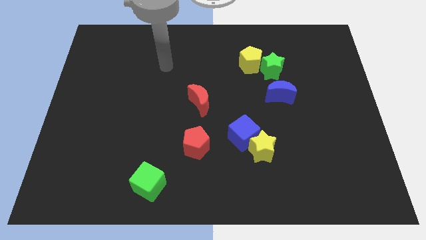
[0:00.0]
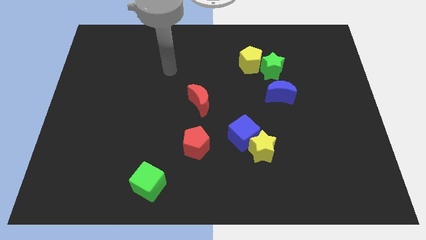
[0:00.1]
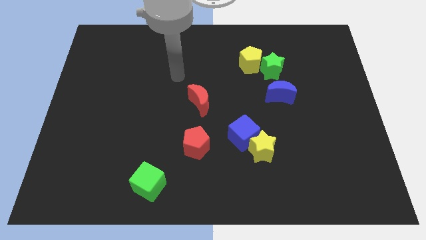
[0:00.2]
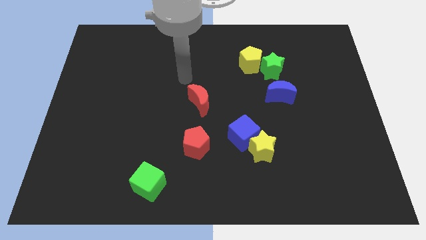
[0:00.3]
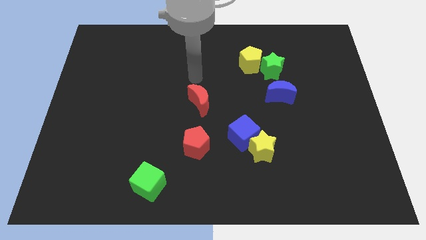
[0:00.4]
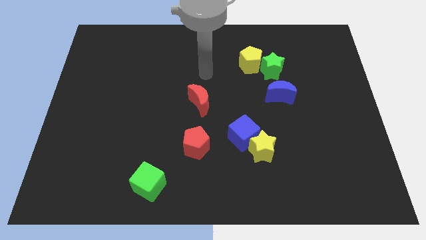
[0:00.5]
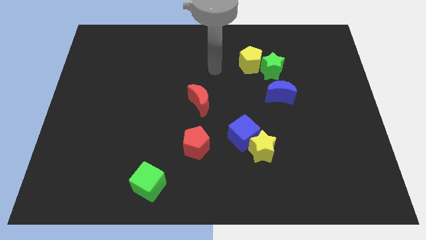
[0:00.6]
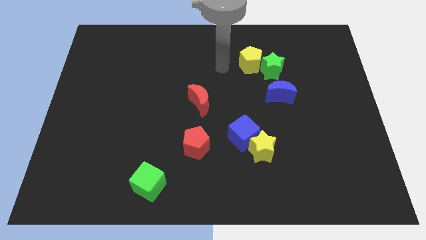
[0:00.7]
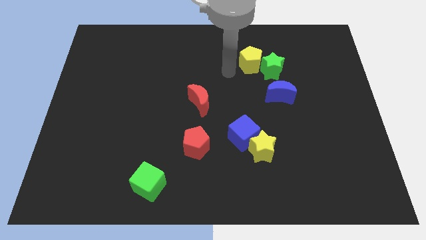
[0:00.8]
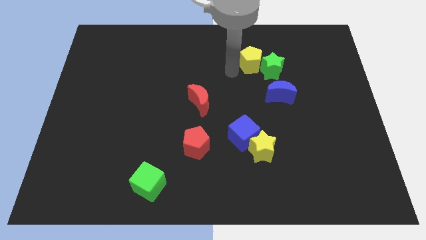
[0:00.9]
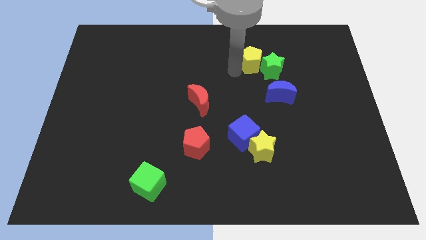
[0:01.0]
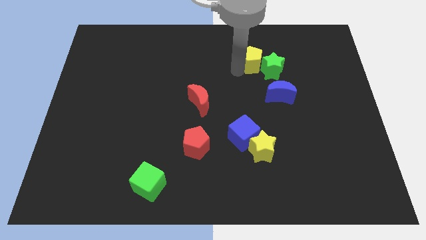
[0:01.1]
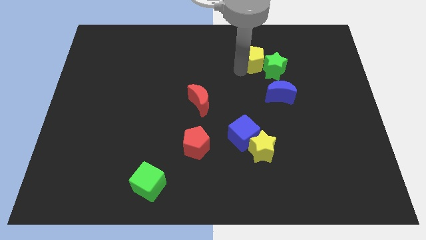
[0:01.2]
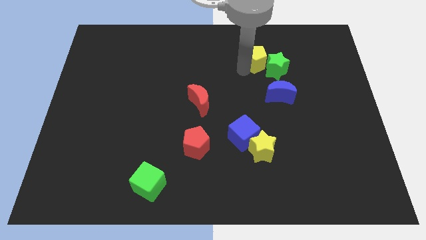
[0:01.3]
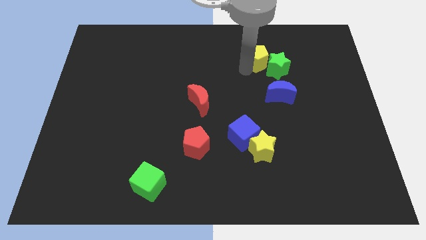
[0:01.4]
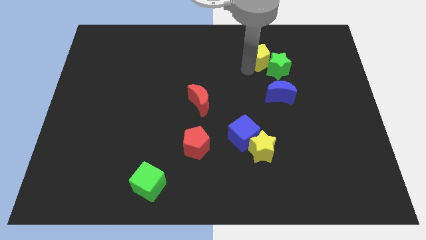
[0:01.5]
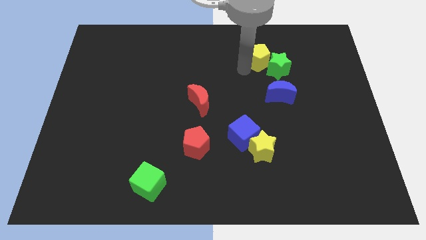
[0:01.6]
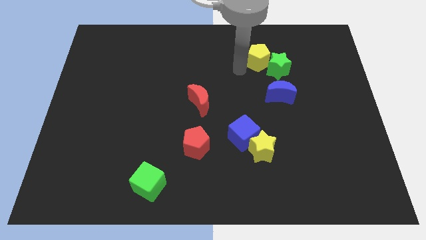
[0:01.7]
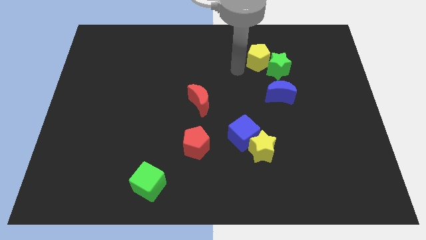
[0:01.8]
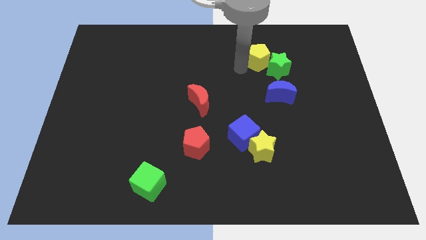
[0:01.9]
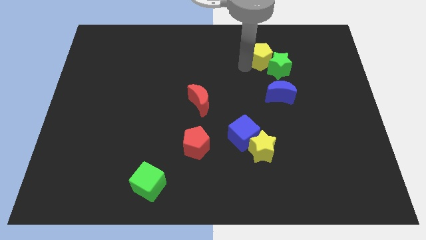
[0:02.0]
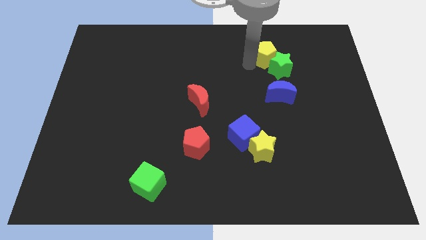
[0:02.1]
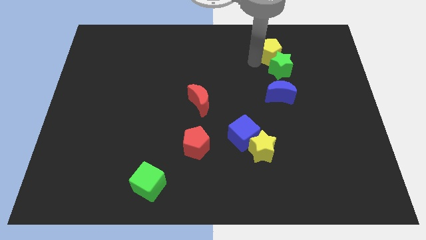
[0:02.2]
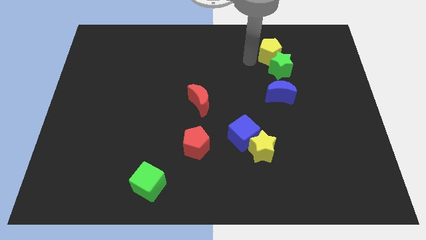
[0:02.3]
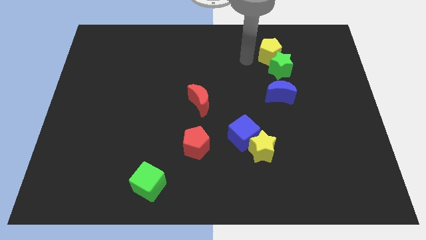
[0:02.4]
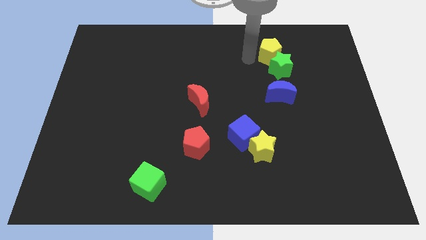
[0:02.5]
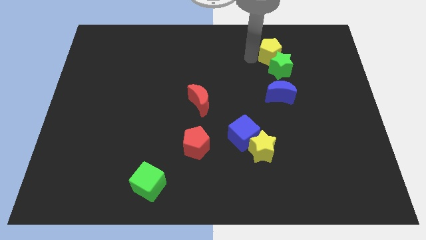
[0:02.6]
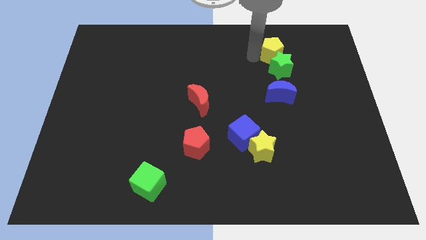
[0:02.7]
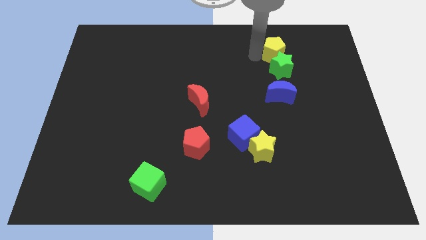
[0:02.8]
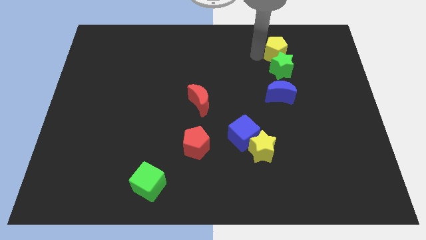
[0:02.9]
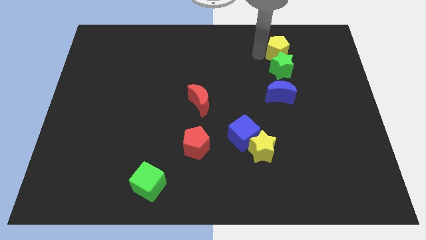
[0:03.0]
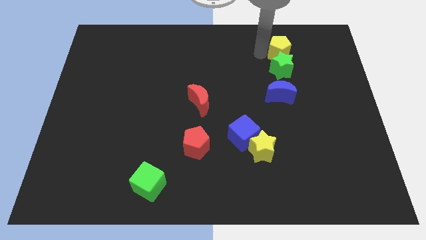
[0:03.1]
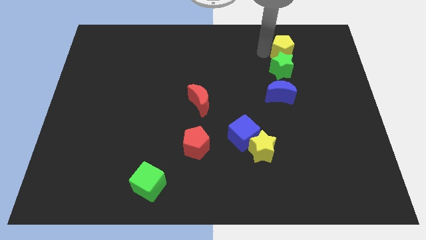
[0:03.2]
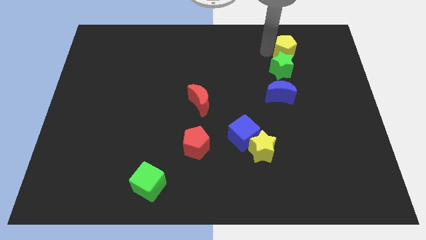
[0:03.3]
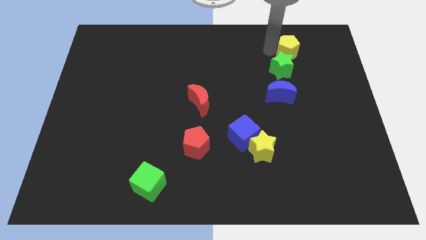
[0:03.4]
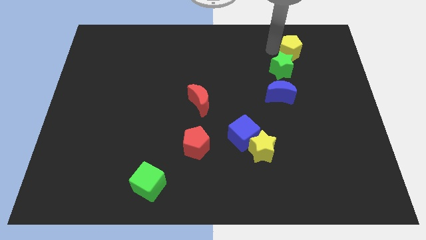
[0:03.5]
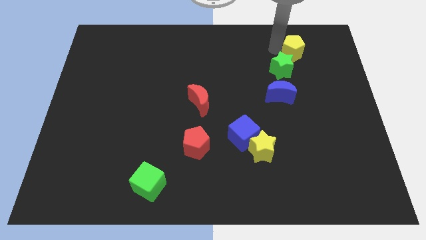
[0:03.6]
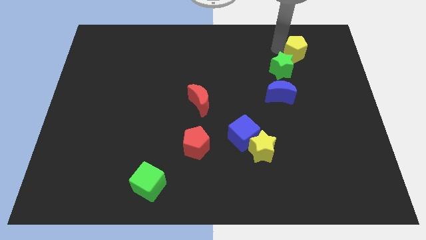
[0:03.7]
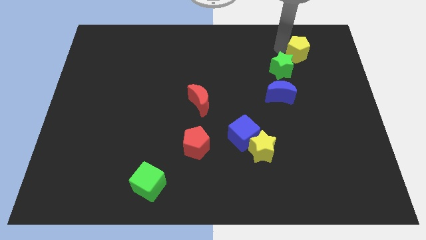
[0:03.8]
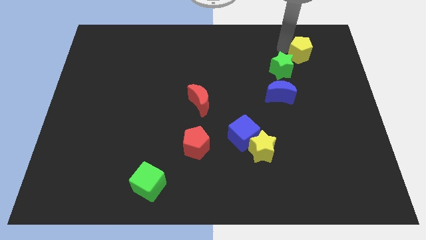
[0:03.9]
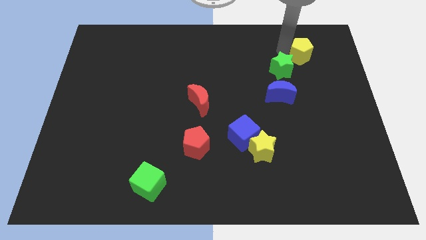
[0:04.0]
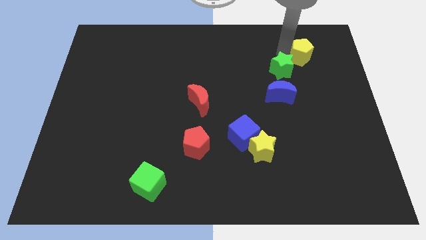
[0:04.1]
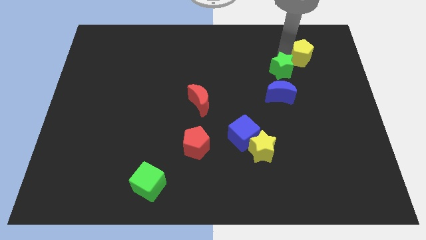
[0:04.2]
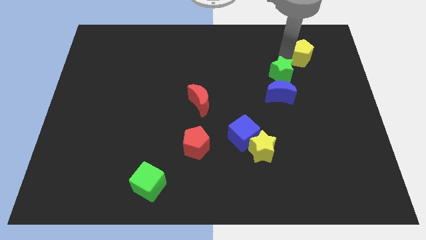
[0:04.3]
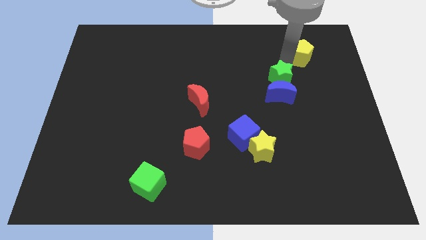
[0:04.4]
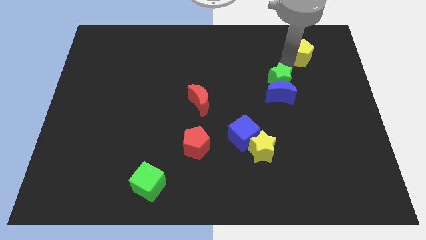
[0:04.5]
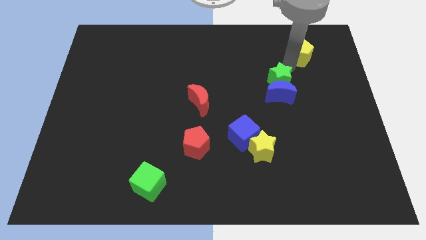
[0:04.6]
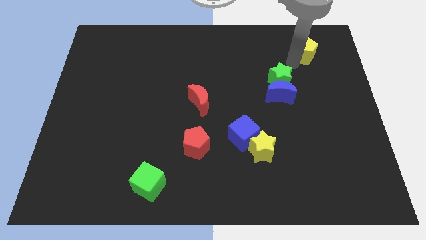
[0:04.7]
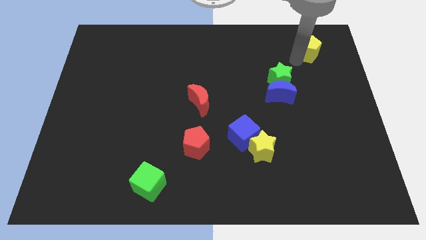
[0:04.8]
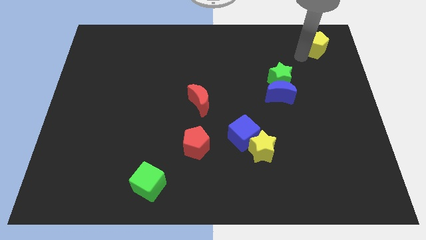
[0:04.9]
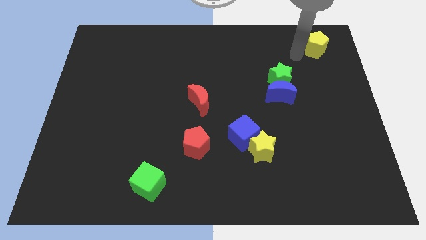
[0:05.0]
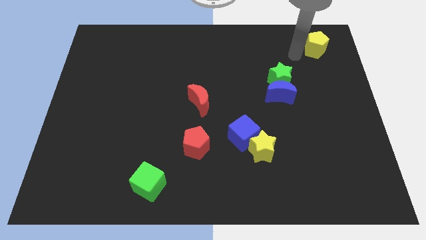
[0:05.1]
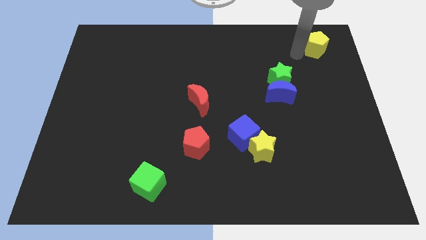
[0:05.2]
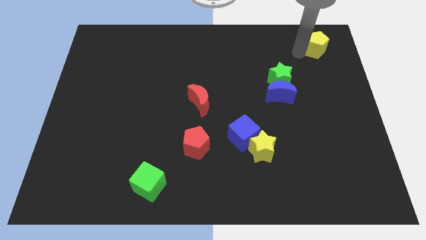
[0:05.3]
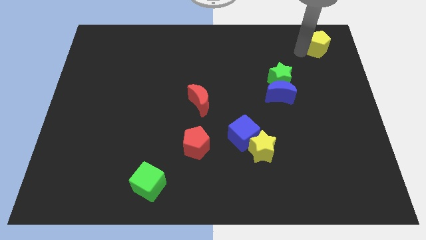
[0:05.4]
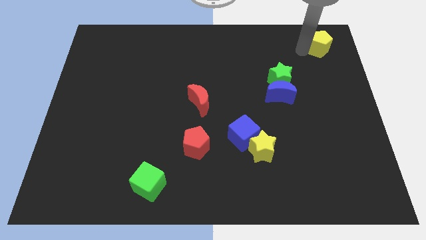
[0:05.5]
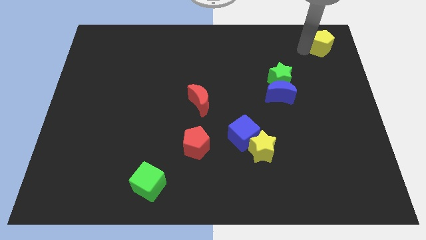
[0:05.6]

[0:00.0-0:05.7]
push the yellow pentagon to the top right corner
